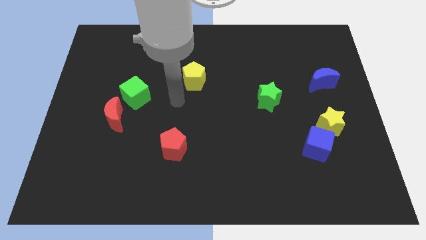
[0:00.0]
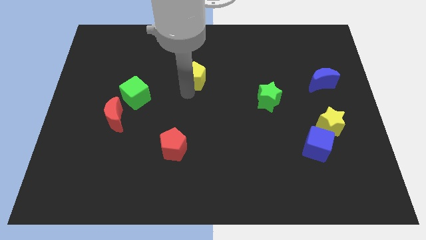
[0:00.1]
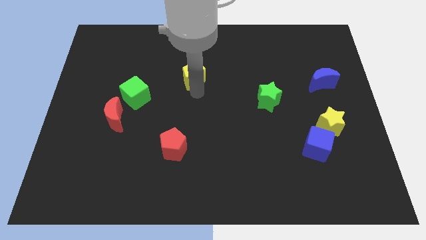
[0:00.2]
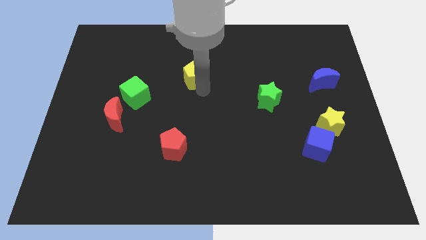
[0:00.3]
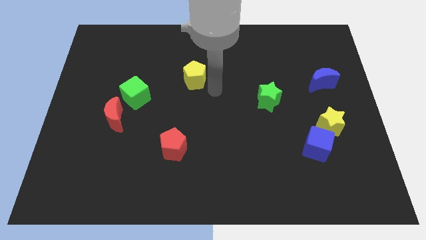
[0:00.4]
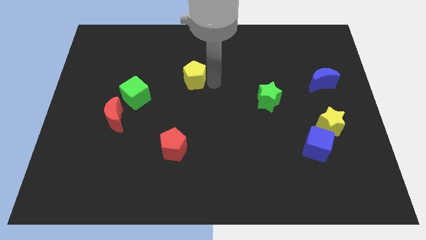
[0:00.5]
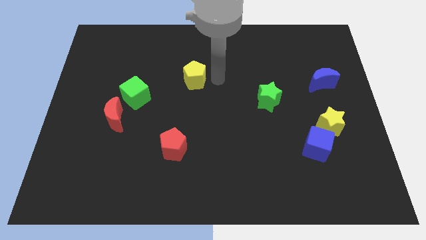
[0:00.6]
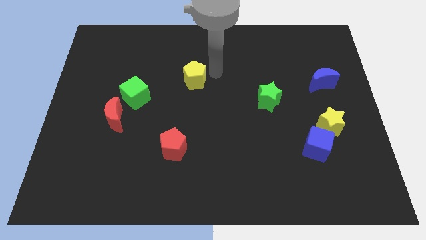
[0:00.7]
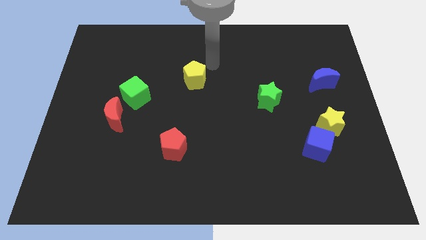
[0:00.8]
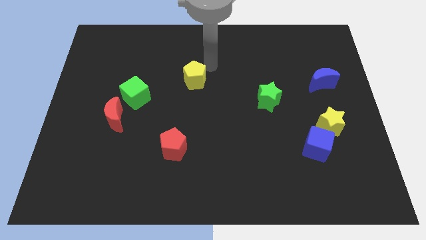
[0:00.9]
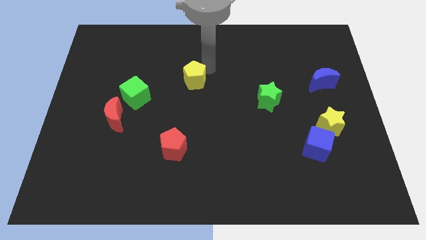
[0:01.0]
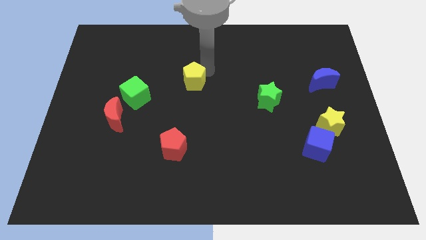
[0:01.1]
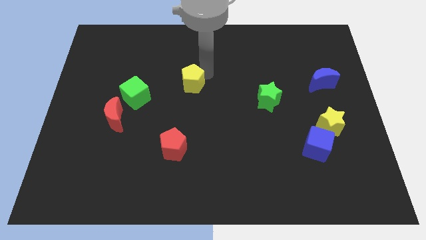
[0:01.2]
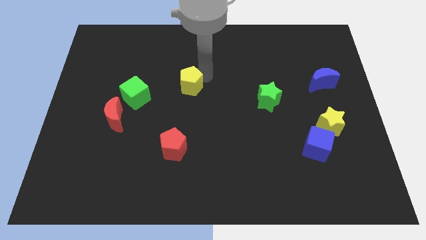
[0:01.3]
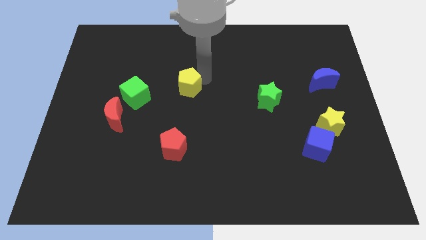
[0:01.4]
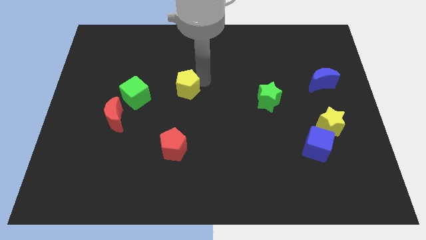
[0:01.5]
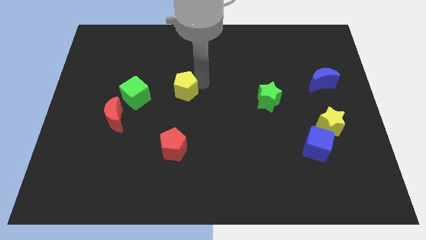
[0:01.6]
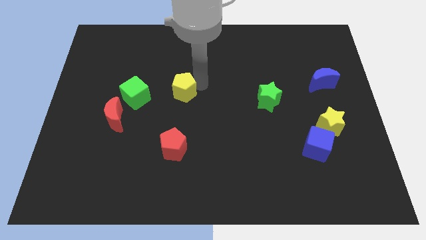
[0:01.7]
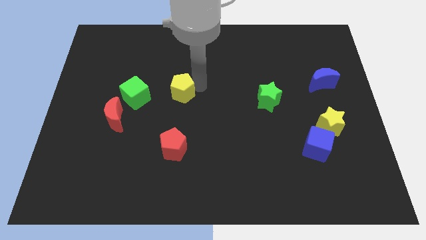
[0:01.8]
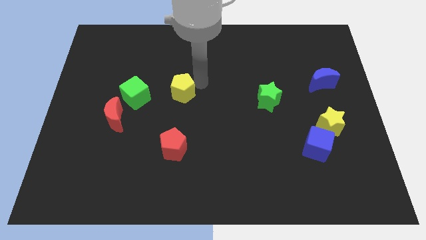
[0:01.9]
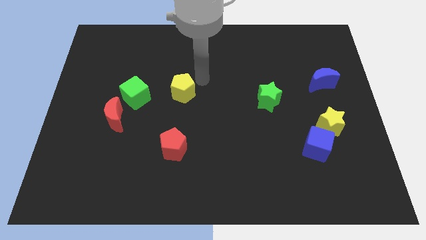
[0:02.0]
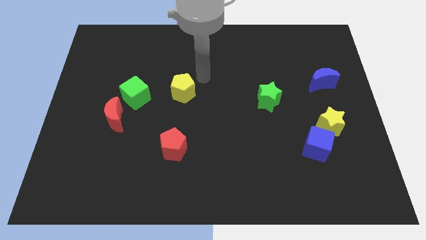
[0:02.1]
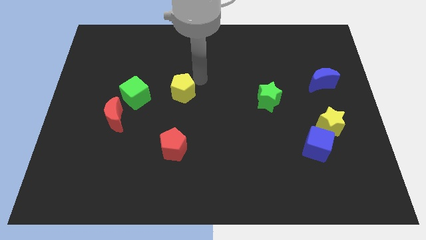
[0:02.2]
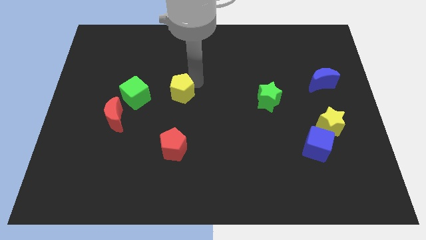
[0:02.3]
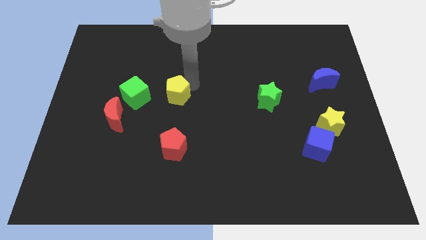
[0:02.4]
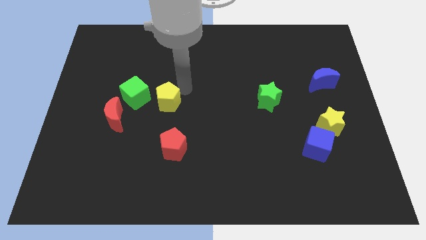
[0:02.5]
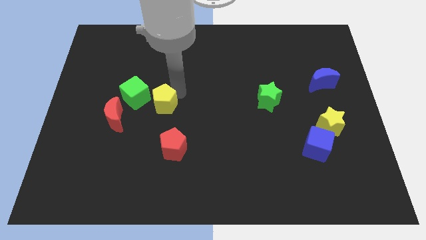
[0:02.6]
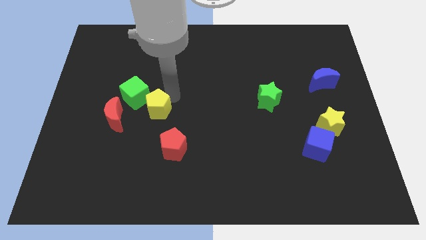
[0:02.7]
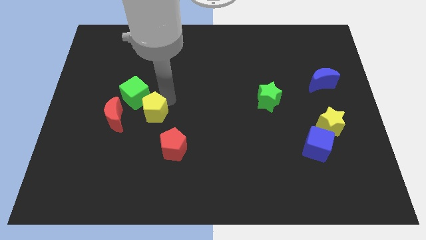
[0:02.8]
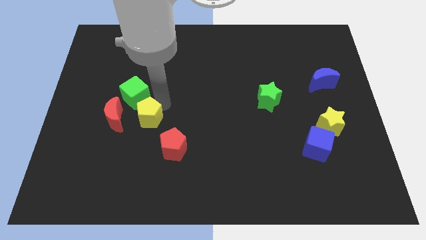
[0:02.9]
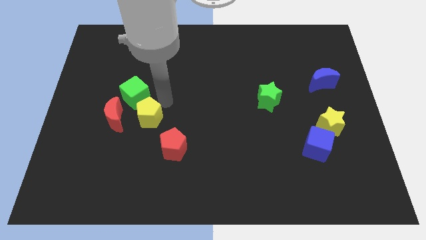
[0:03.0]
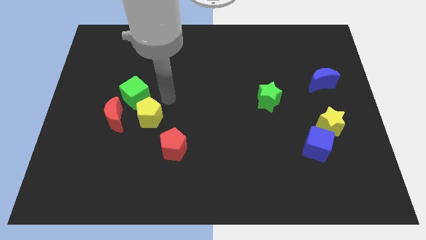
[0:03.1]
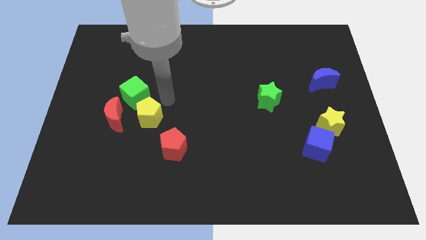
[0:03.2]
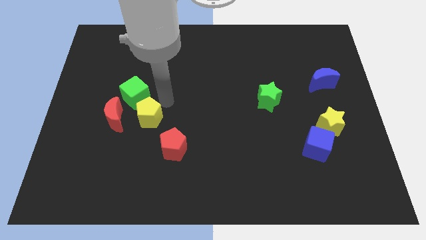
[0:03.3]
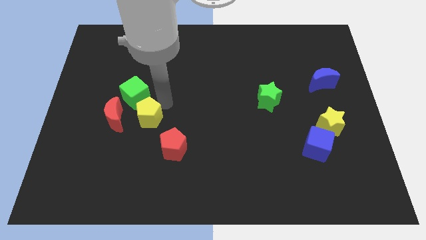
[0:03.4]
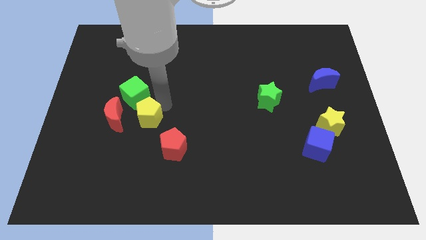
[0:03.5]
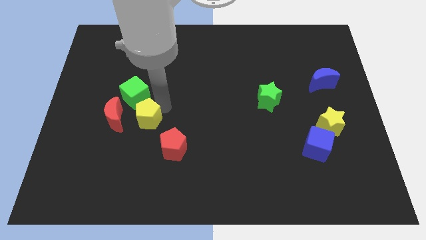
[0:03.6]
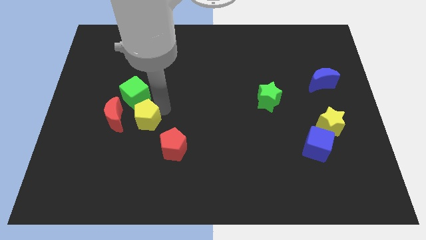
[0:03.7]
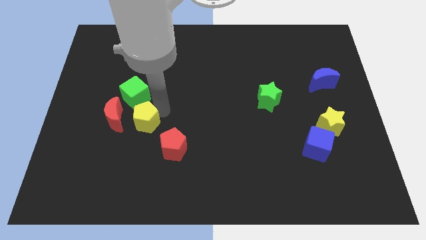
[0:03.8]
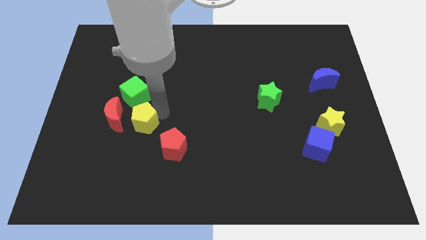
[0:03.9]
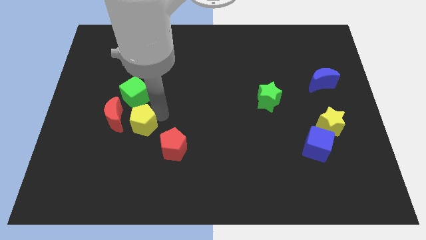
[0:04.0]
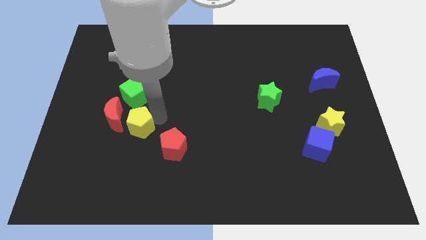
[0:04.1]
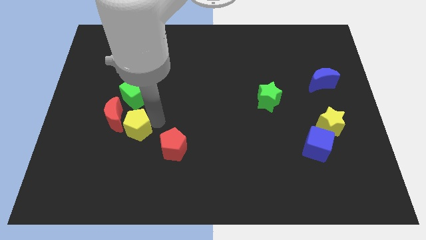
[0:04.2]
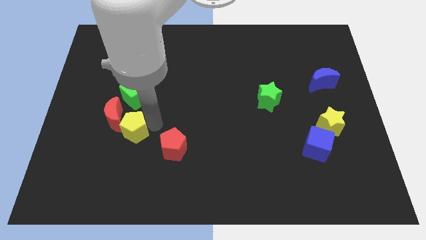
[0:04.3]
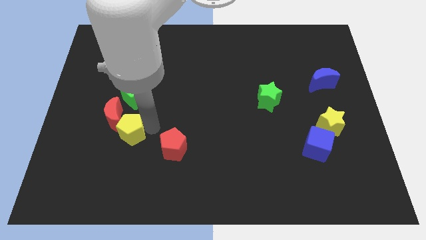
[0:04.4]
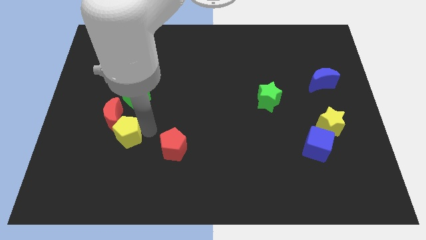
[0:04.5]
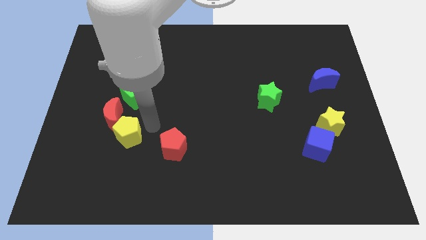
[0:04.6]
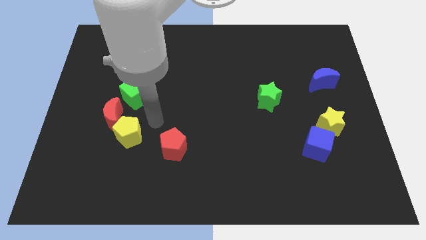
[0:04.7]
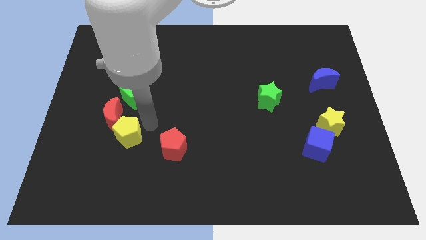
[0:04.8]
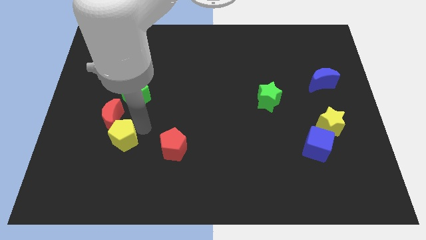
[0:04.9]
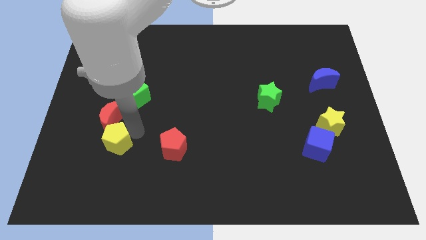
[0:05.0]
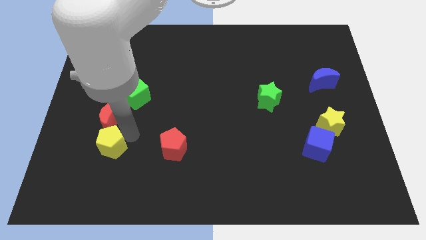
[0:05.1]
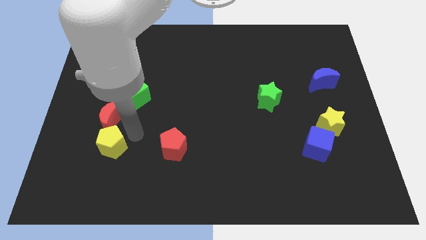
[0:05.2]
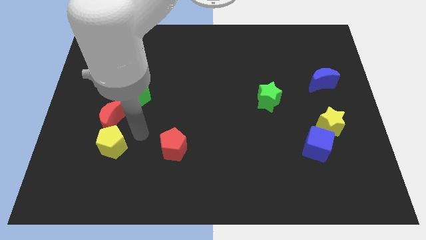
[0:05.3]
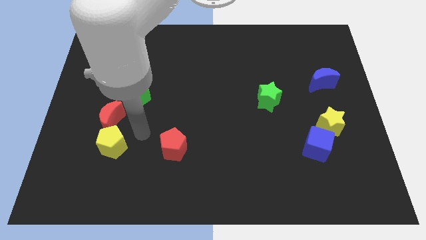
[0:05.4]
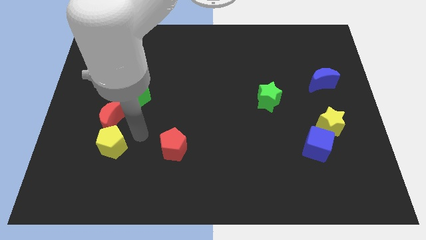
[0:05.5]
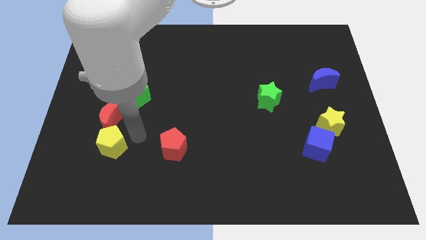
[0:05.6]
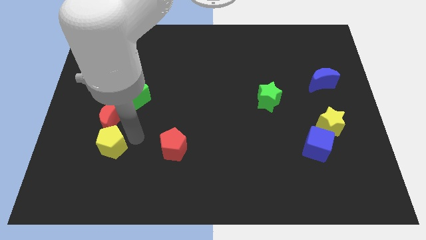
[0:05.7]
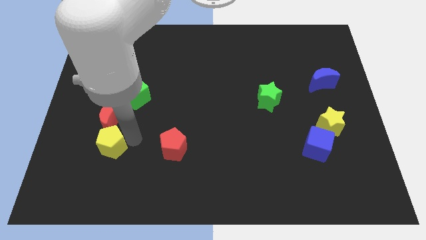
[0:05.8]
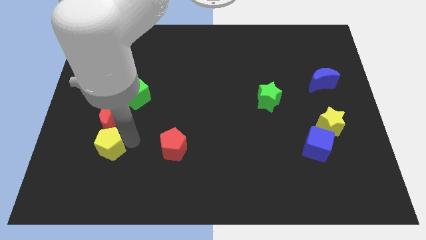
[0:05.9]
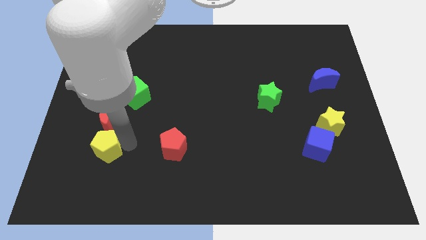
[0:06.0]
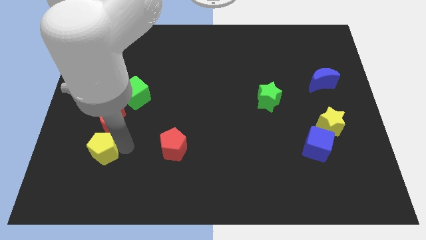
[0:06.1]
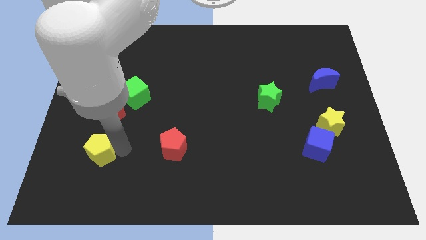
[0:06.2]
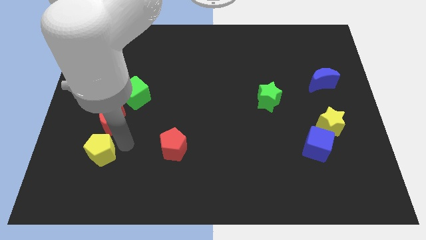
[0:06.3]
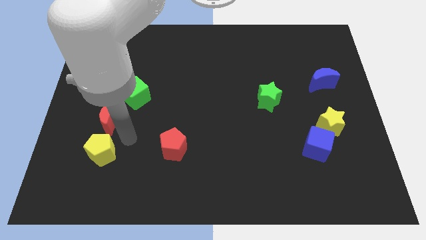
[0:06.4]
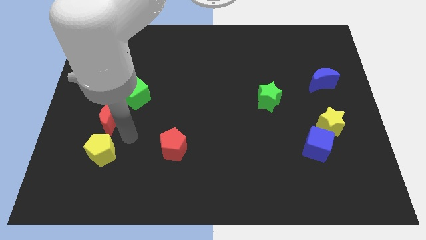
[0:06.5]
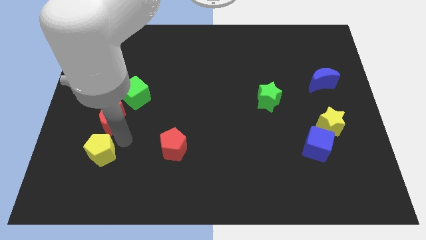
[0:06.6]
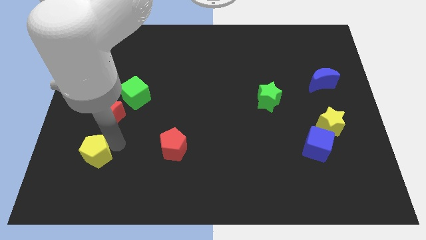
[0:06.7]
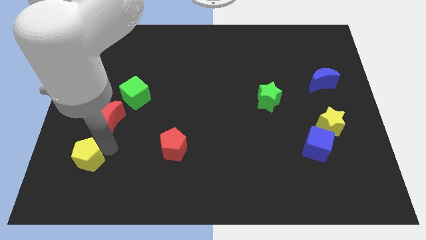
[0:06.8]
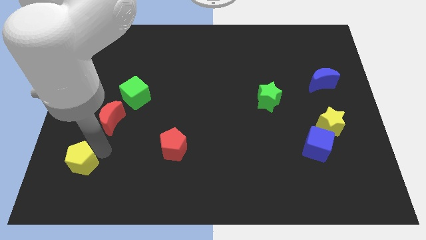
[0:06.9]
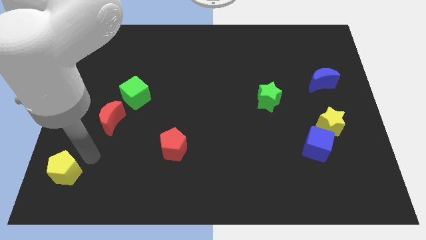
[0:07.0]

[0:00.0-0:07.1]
push the yellow pentagon to the bottom left

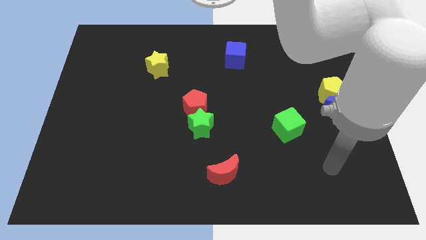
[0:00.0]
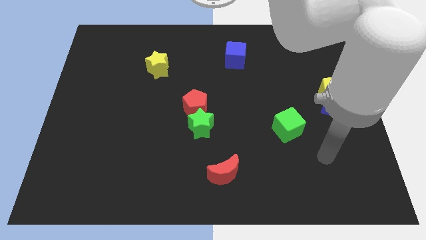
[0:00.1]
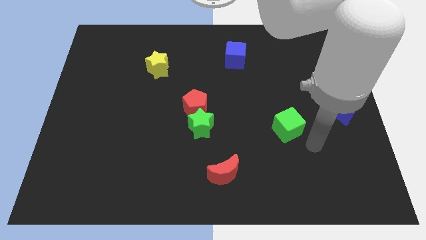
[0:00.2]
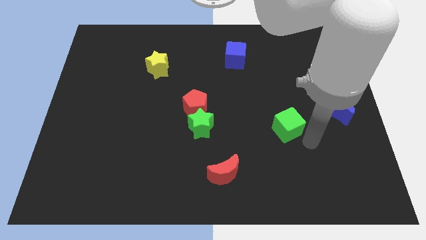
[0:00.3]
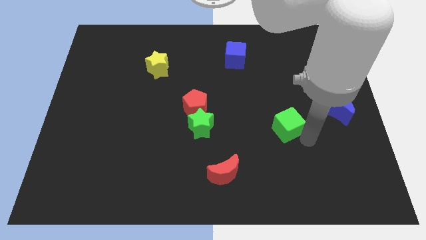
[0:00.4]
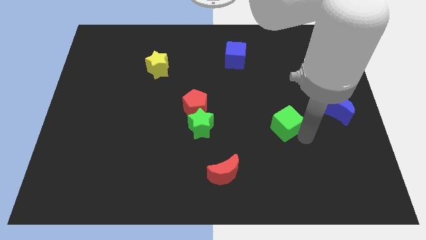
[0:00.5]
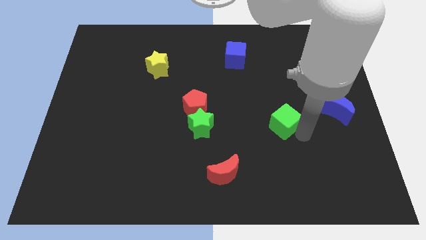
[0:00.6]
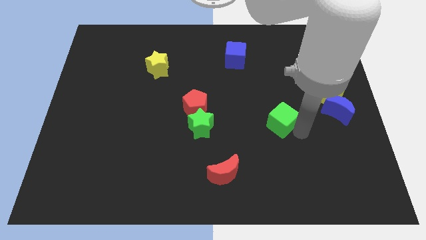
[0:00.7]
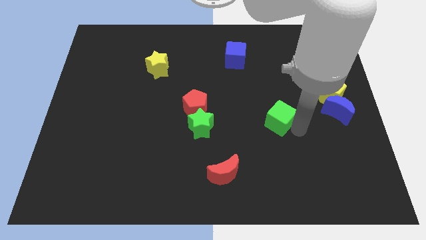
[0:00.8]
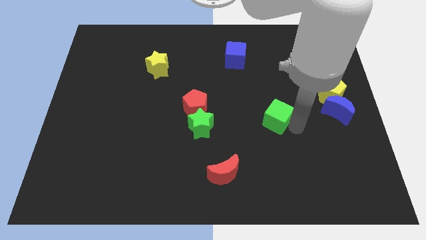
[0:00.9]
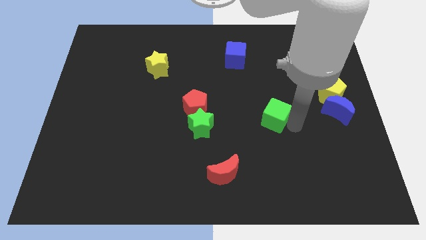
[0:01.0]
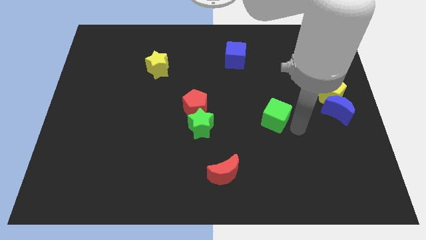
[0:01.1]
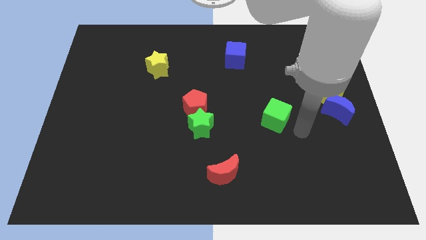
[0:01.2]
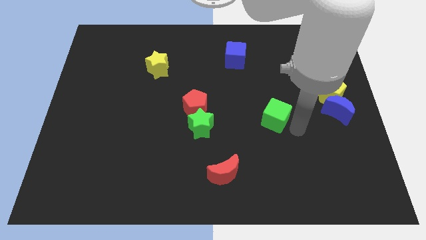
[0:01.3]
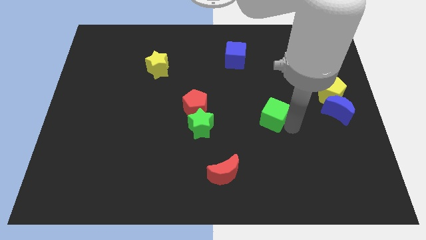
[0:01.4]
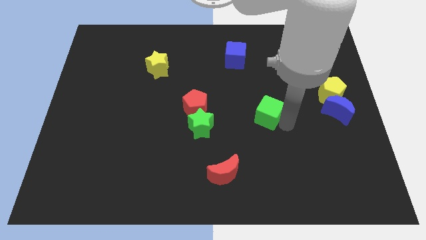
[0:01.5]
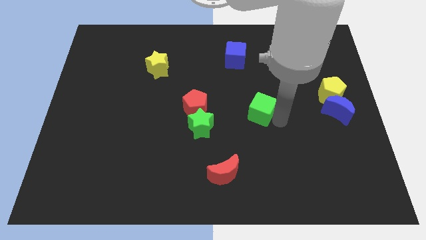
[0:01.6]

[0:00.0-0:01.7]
put the green cube to the middle of the board
